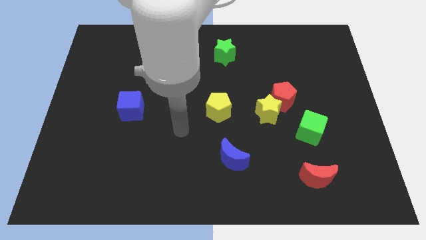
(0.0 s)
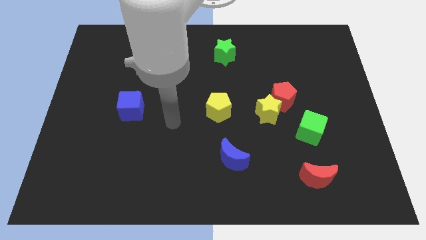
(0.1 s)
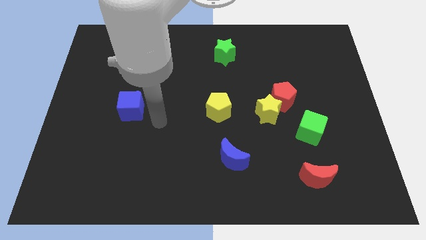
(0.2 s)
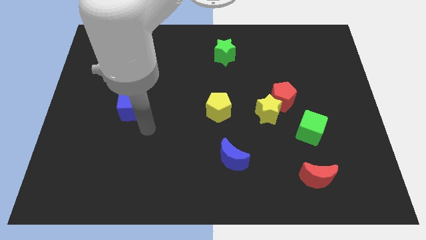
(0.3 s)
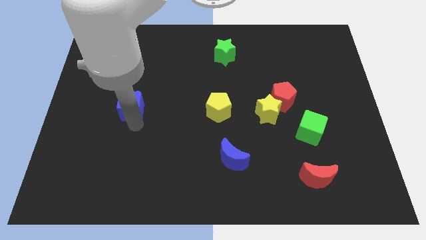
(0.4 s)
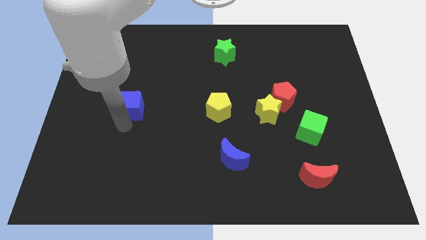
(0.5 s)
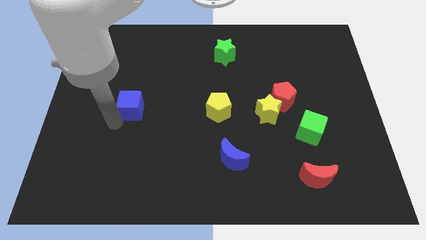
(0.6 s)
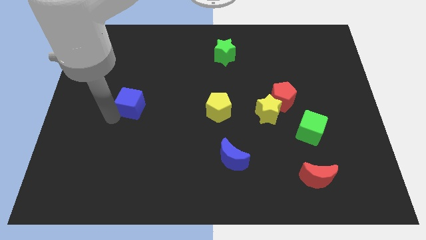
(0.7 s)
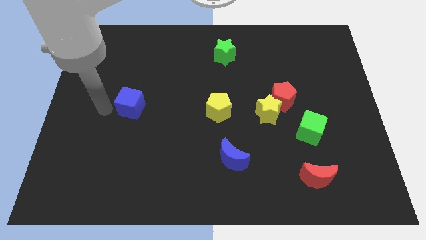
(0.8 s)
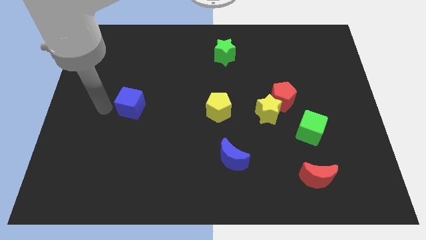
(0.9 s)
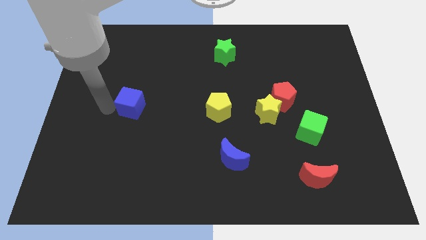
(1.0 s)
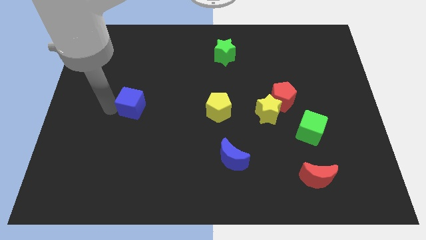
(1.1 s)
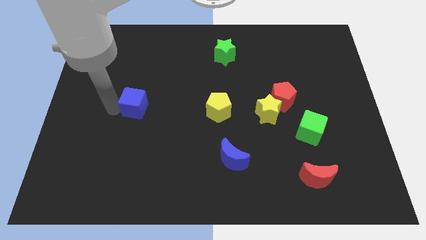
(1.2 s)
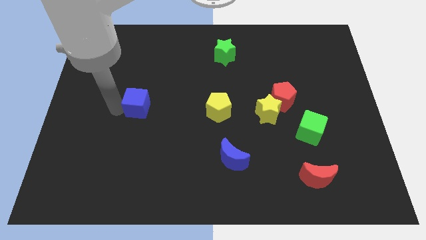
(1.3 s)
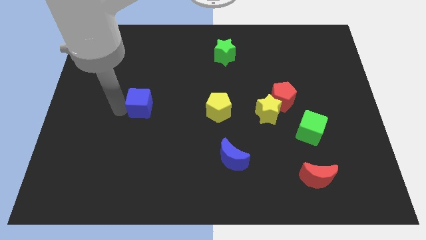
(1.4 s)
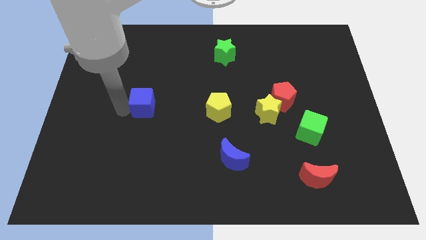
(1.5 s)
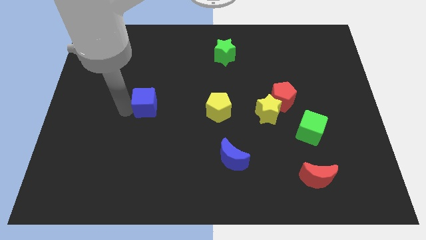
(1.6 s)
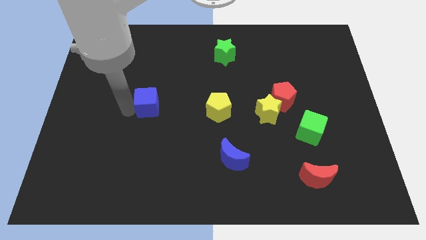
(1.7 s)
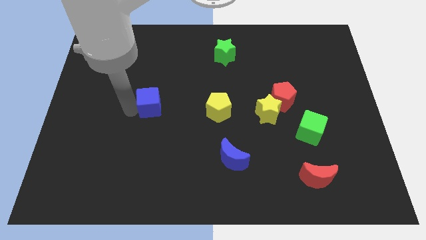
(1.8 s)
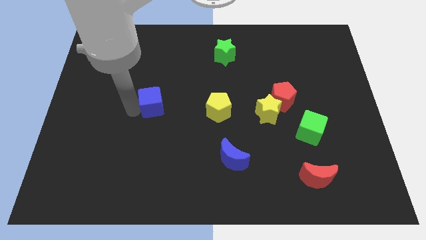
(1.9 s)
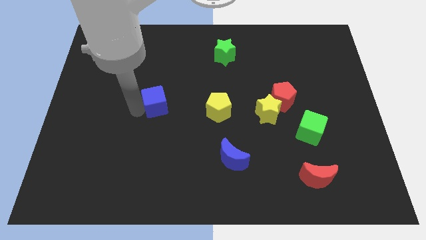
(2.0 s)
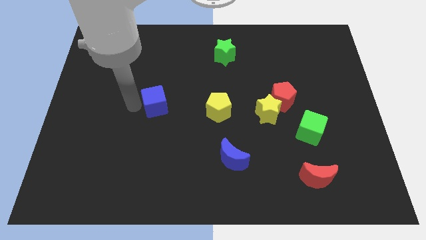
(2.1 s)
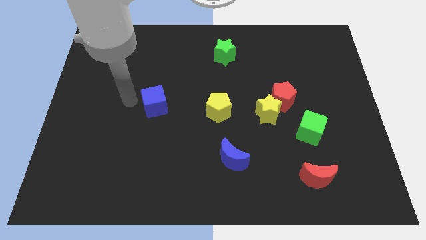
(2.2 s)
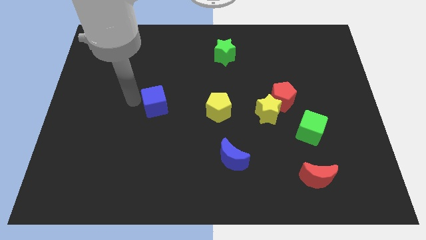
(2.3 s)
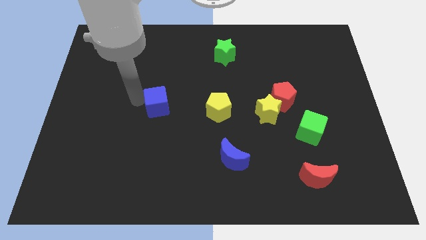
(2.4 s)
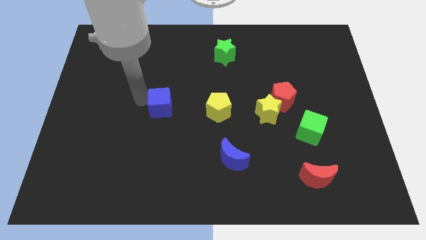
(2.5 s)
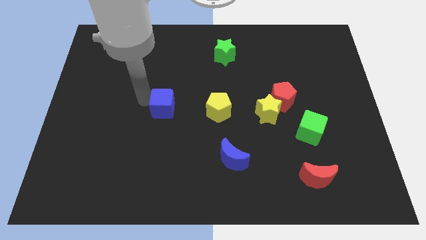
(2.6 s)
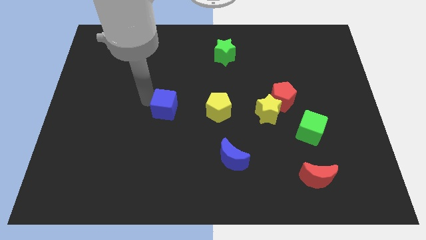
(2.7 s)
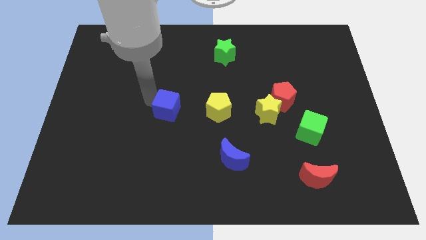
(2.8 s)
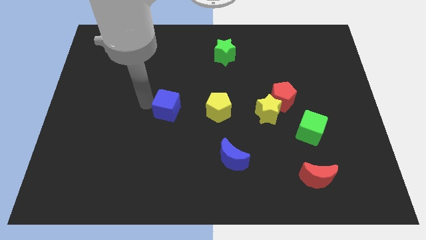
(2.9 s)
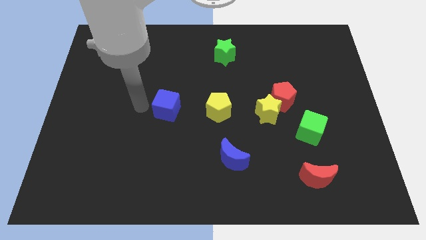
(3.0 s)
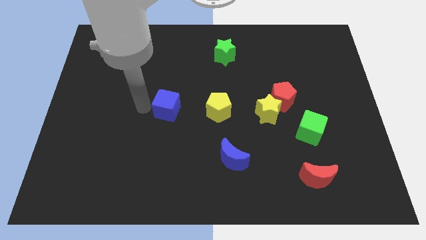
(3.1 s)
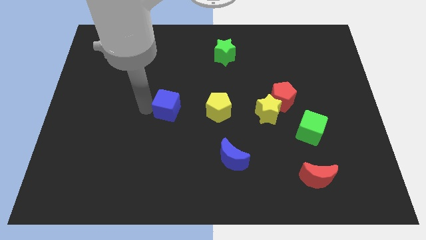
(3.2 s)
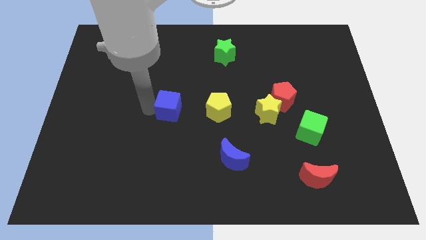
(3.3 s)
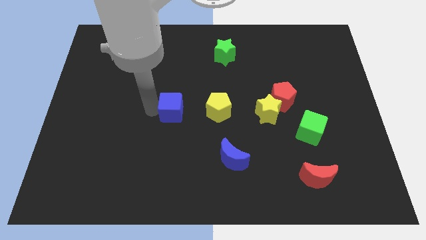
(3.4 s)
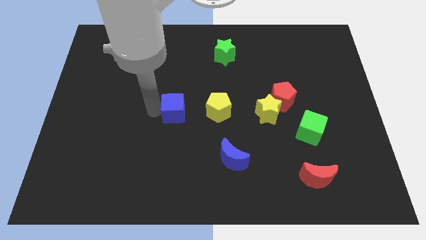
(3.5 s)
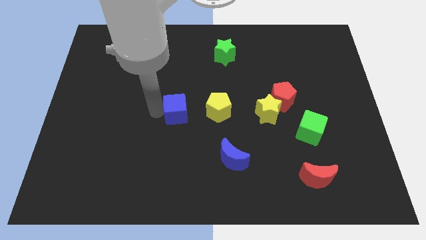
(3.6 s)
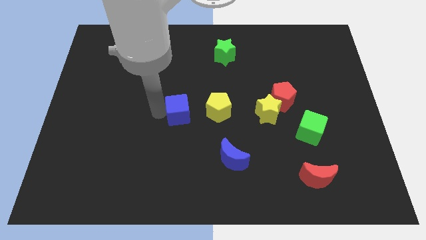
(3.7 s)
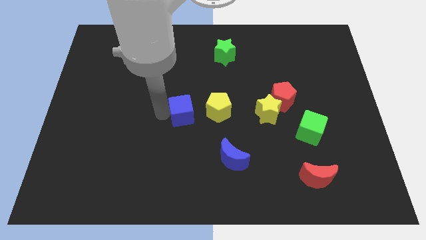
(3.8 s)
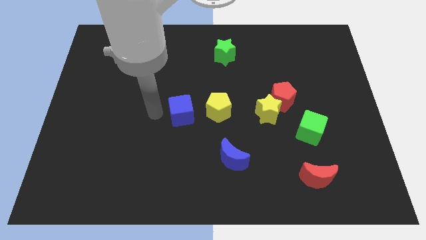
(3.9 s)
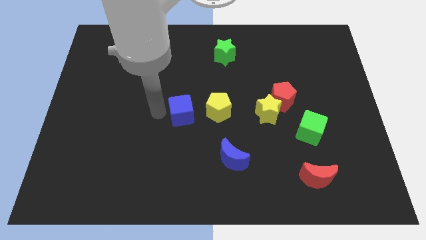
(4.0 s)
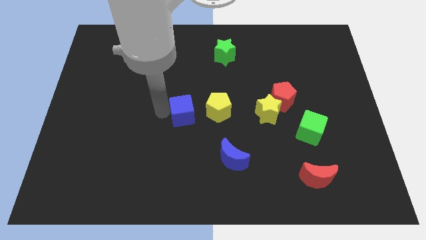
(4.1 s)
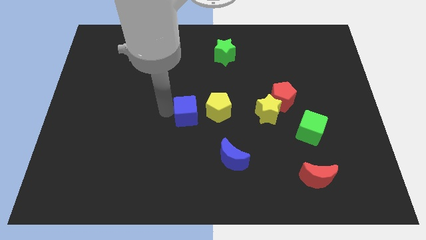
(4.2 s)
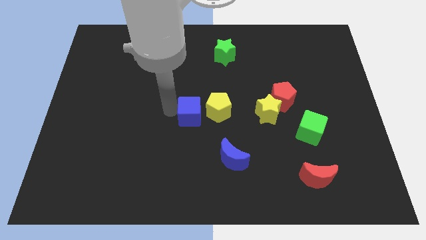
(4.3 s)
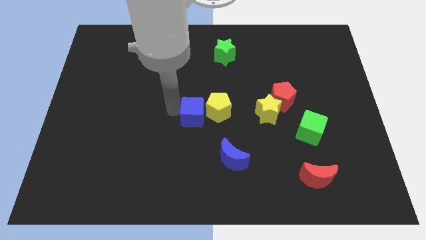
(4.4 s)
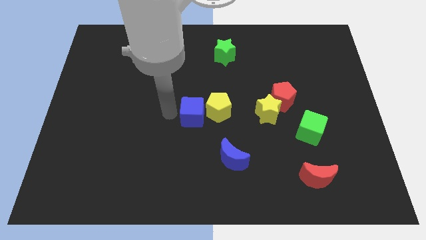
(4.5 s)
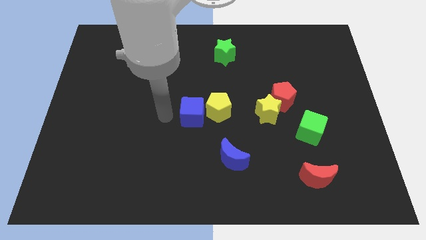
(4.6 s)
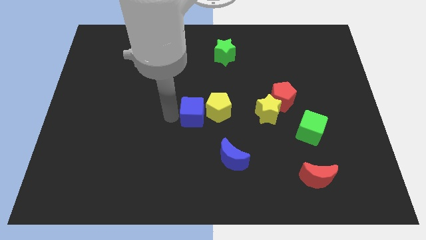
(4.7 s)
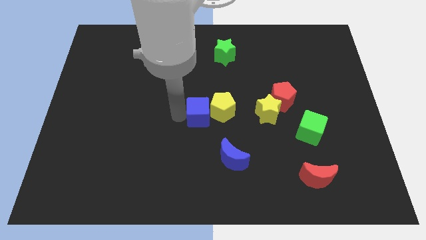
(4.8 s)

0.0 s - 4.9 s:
slide the blue cube left of the yellow star

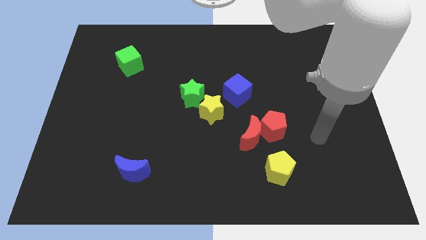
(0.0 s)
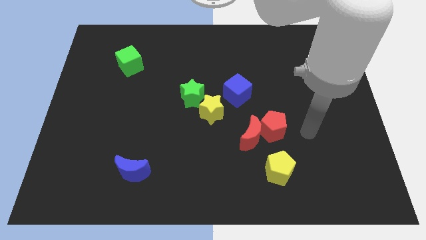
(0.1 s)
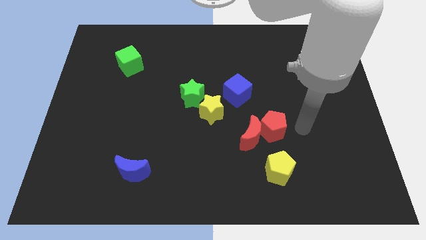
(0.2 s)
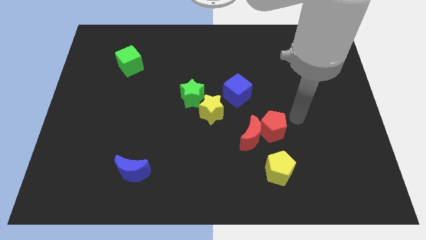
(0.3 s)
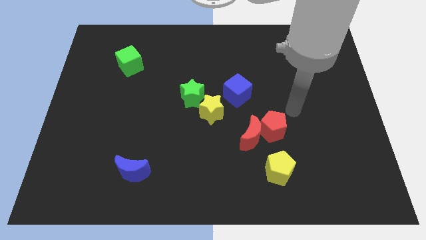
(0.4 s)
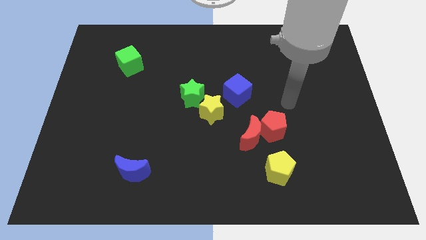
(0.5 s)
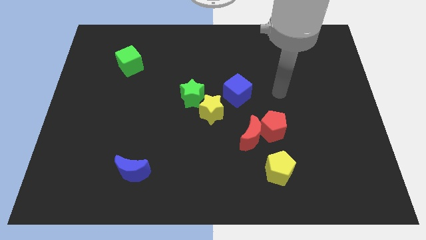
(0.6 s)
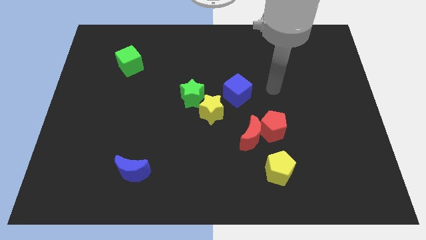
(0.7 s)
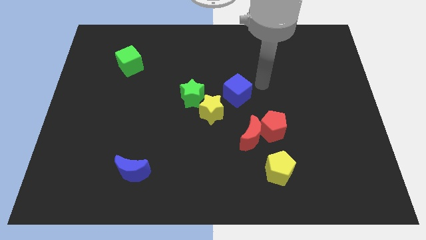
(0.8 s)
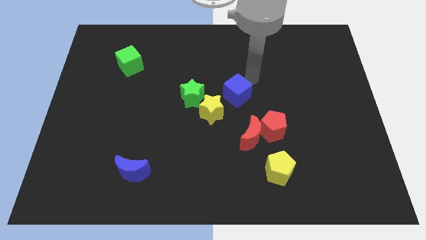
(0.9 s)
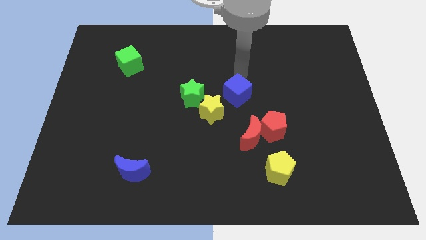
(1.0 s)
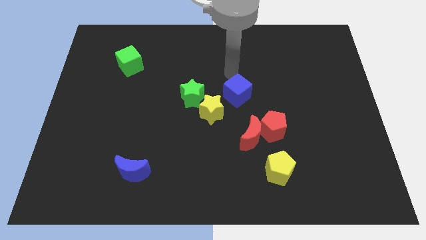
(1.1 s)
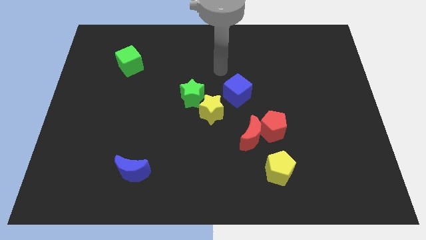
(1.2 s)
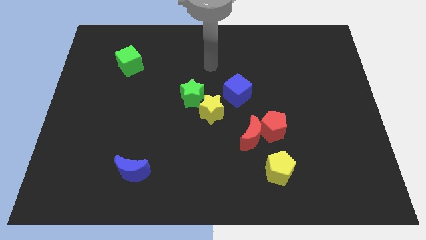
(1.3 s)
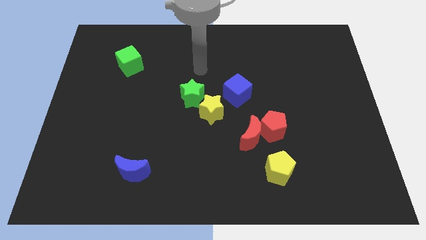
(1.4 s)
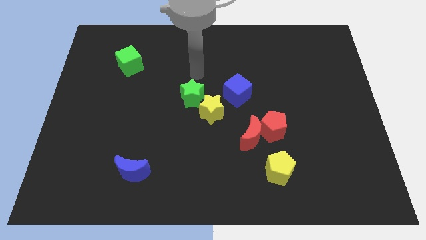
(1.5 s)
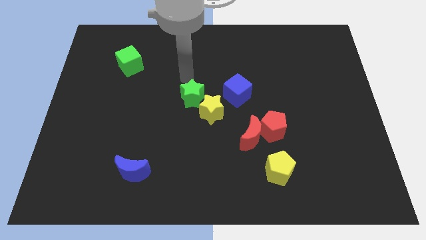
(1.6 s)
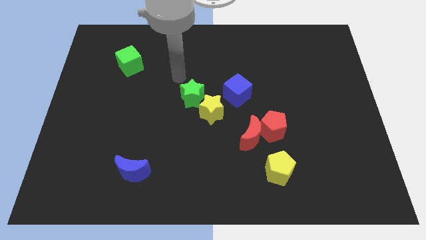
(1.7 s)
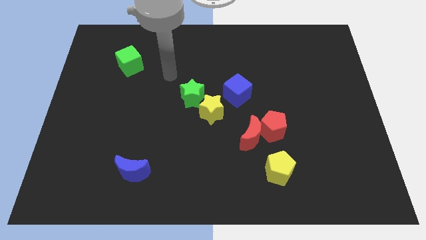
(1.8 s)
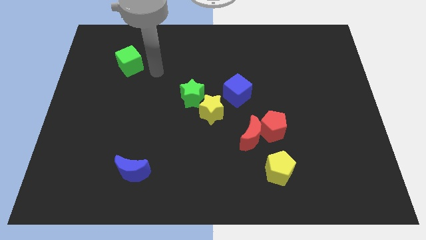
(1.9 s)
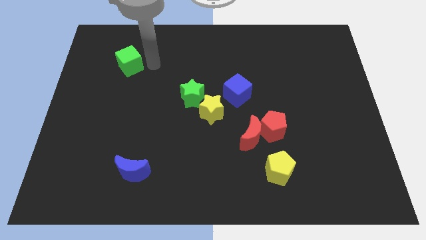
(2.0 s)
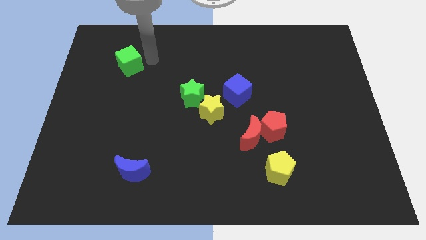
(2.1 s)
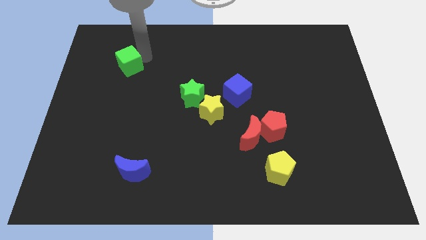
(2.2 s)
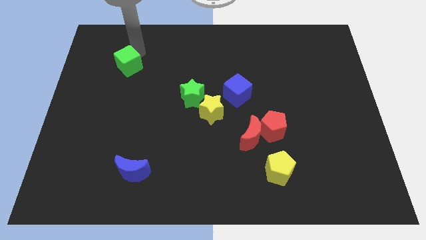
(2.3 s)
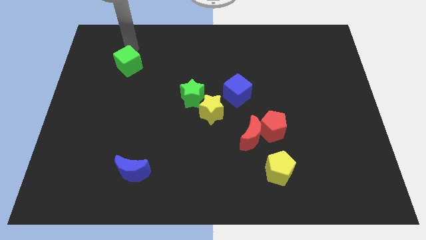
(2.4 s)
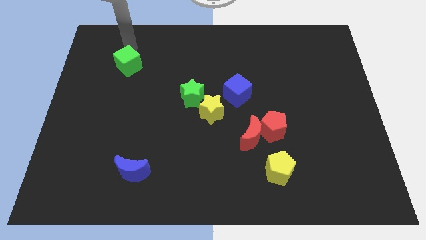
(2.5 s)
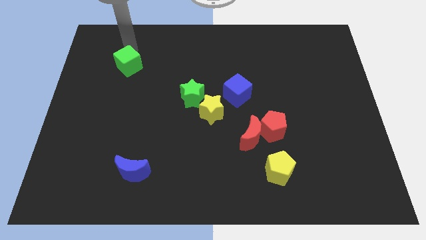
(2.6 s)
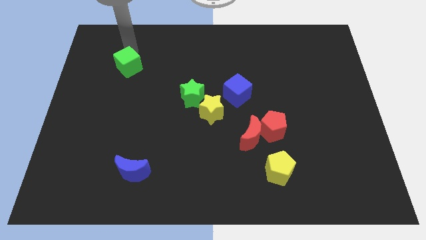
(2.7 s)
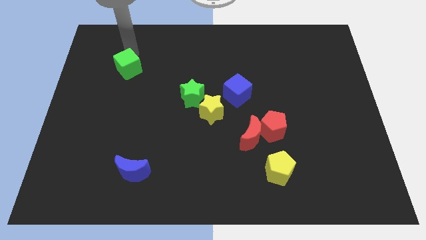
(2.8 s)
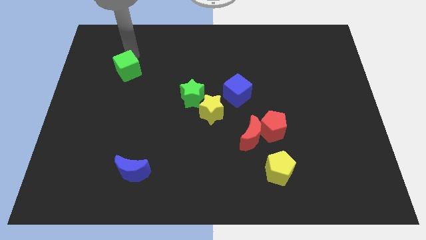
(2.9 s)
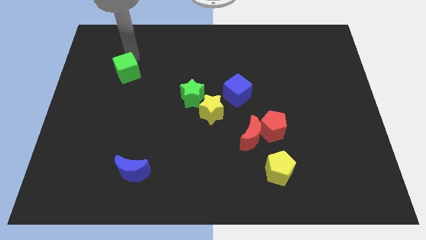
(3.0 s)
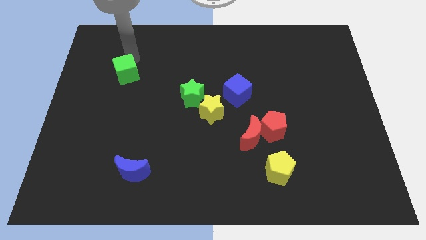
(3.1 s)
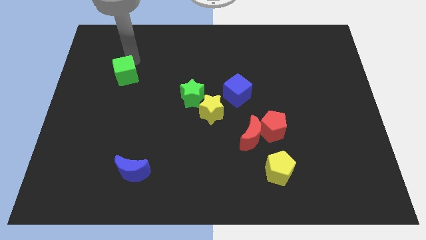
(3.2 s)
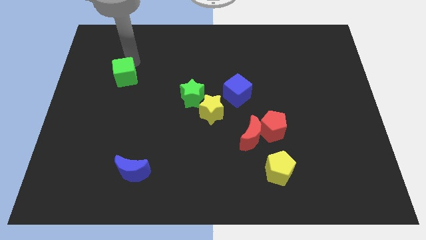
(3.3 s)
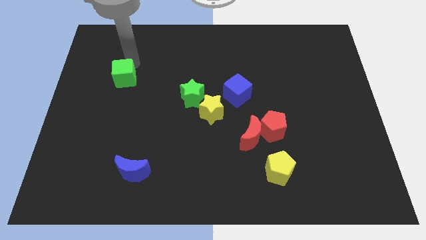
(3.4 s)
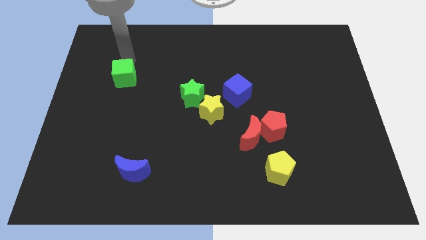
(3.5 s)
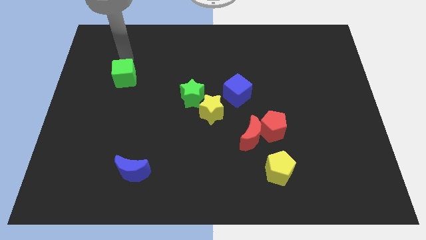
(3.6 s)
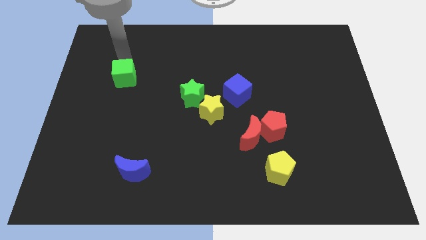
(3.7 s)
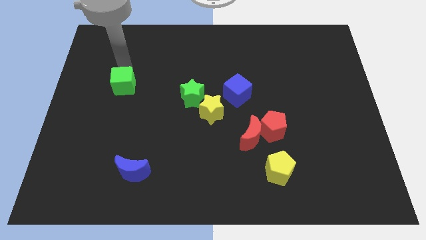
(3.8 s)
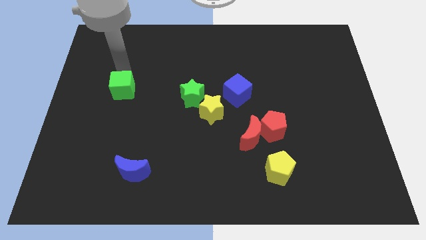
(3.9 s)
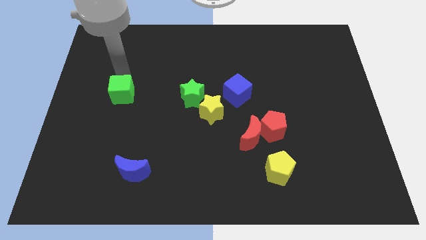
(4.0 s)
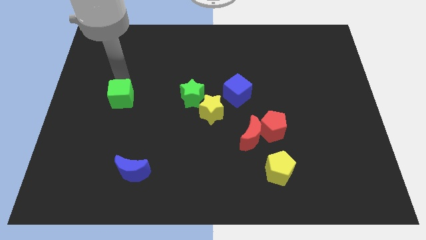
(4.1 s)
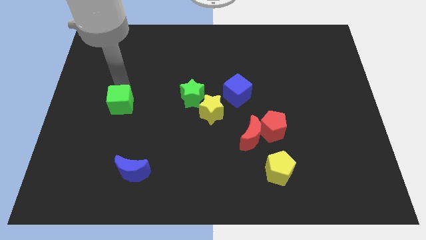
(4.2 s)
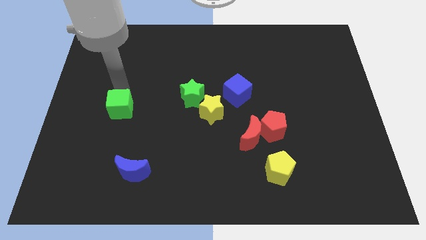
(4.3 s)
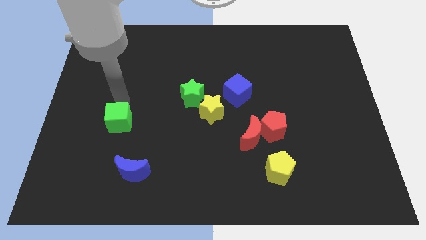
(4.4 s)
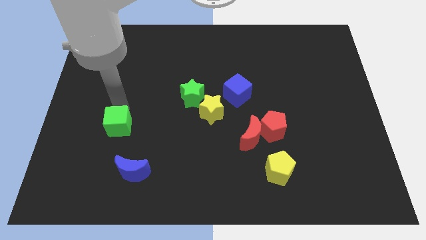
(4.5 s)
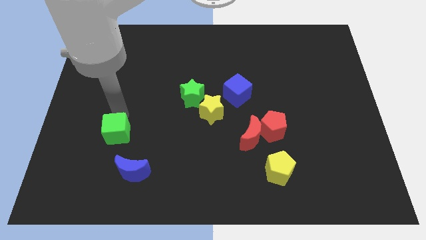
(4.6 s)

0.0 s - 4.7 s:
put the green cube diagonally up and to the left of the blue moon
